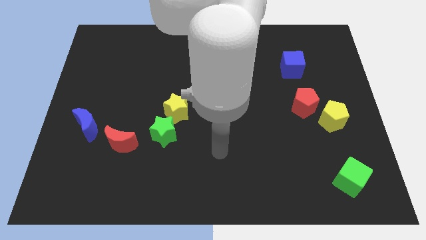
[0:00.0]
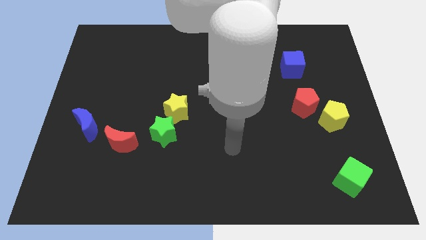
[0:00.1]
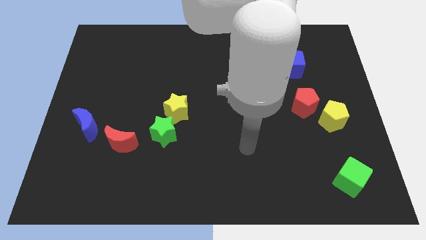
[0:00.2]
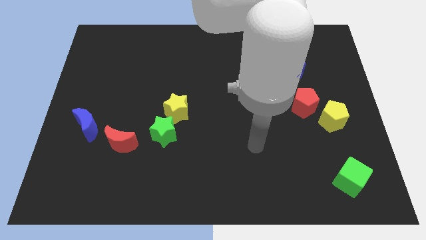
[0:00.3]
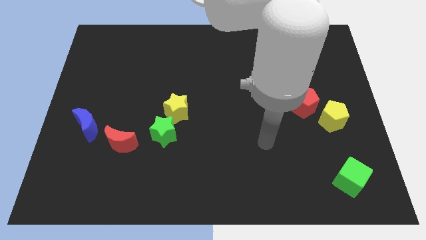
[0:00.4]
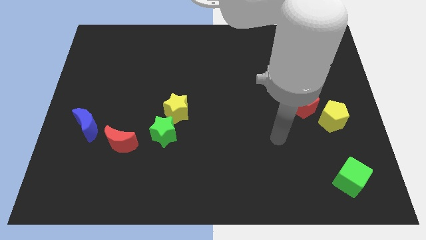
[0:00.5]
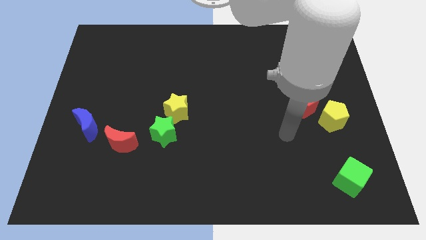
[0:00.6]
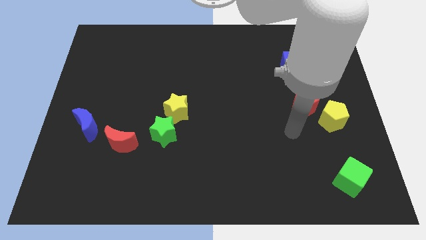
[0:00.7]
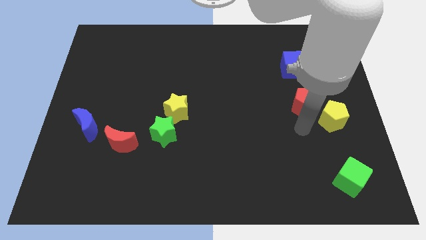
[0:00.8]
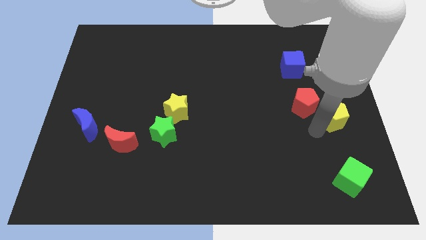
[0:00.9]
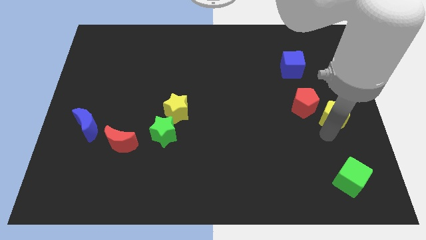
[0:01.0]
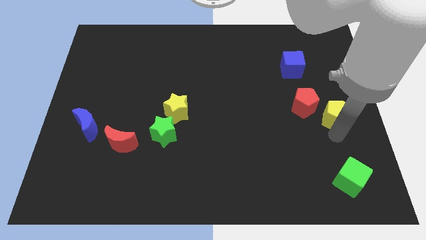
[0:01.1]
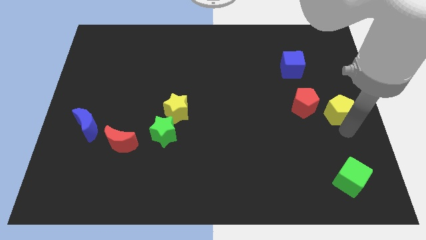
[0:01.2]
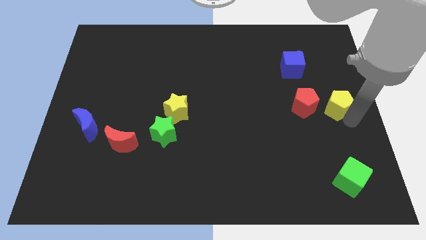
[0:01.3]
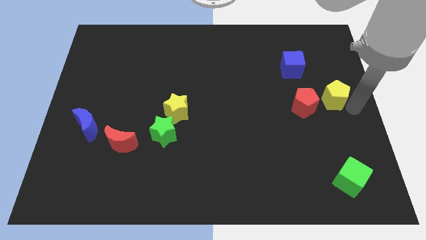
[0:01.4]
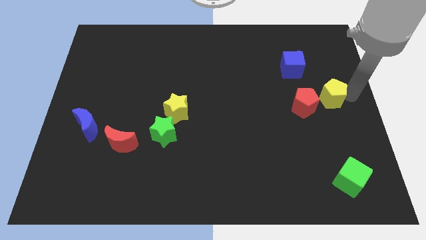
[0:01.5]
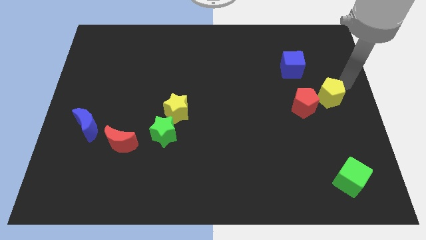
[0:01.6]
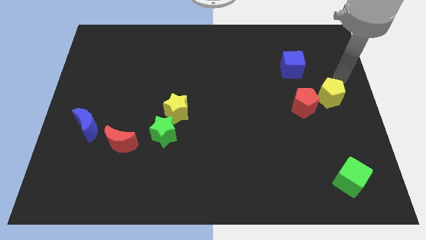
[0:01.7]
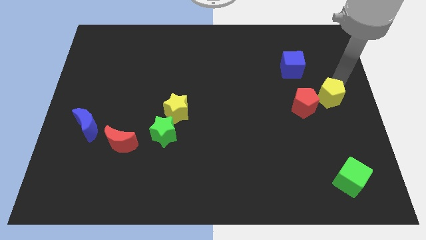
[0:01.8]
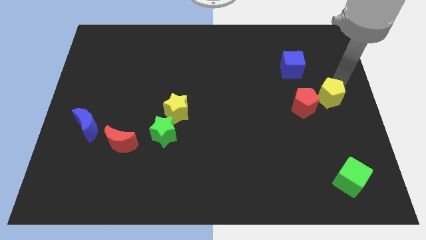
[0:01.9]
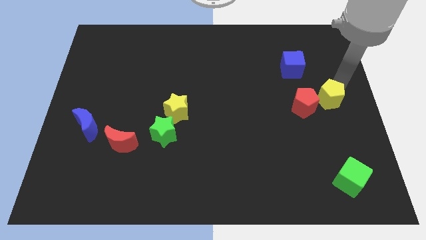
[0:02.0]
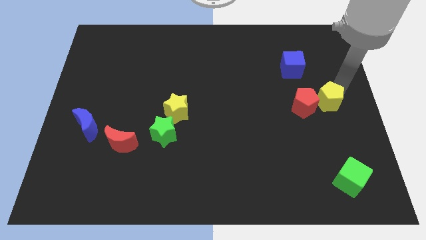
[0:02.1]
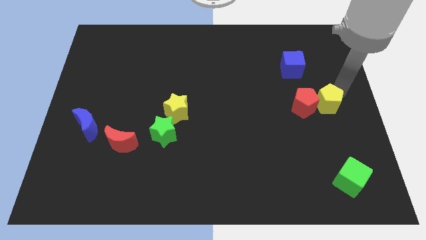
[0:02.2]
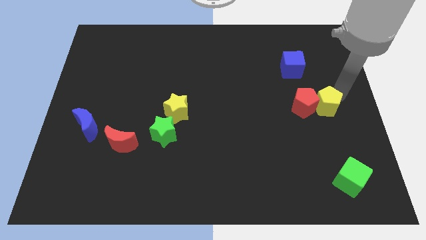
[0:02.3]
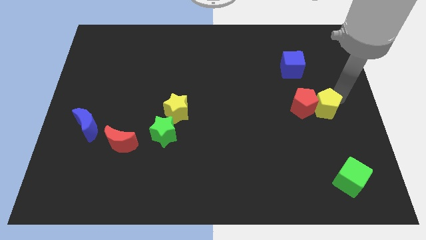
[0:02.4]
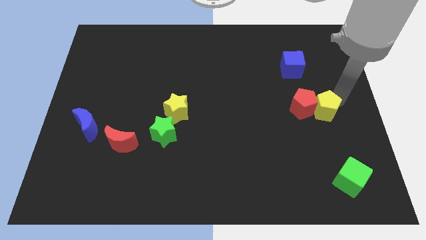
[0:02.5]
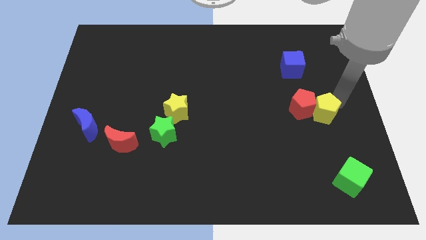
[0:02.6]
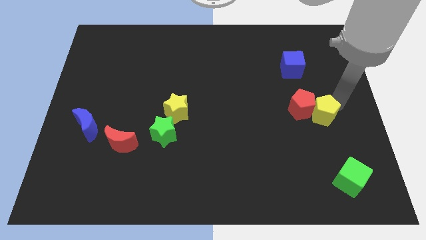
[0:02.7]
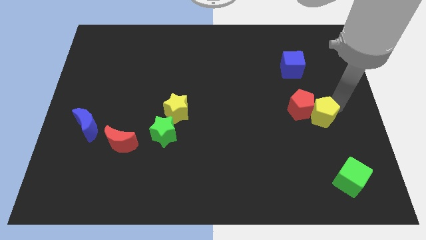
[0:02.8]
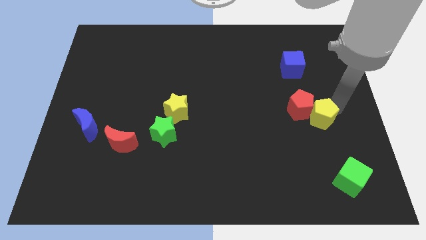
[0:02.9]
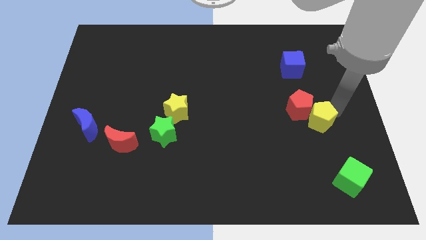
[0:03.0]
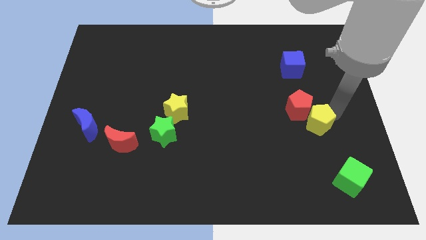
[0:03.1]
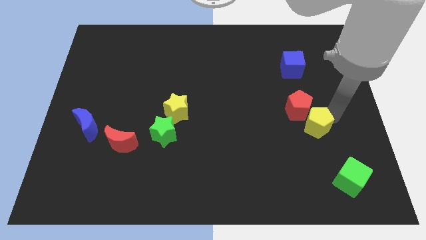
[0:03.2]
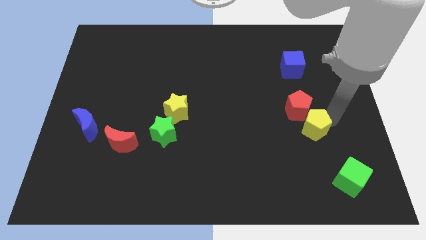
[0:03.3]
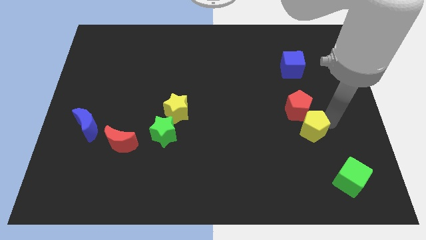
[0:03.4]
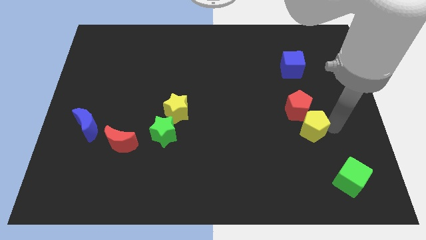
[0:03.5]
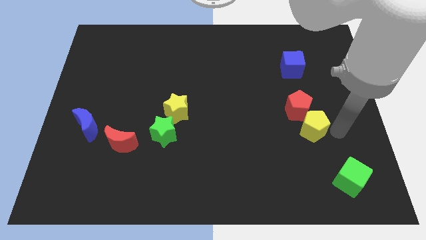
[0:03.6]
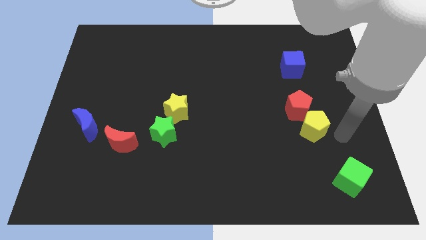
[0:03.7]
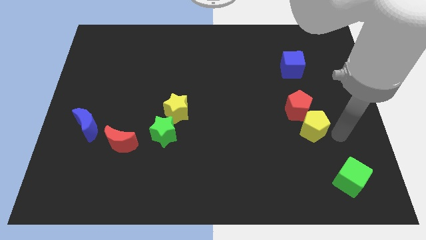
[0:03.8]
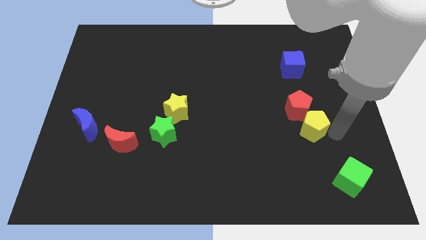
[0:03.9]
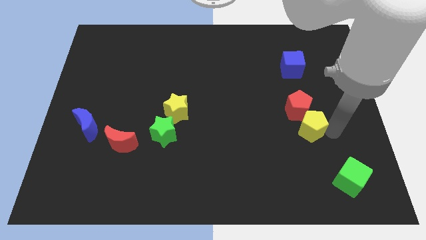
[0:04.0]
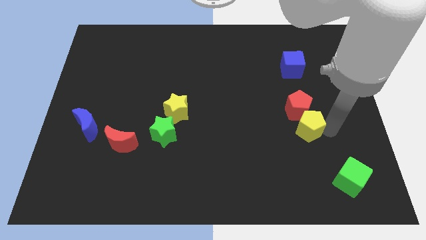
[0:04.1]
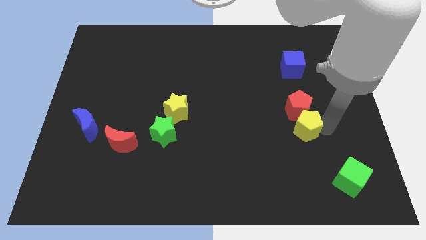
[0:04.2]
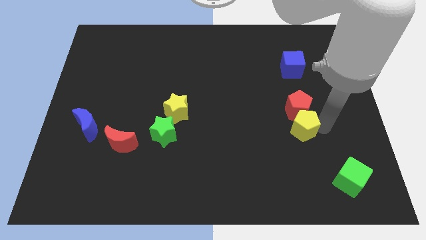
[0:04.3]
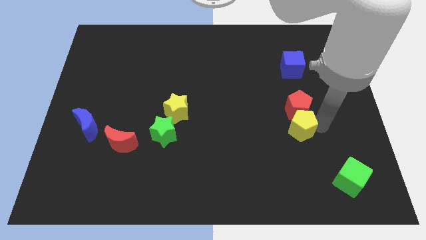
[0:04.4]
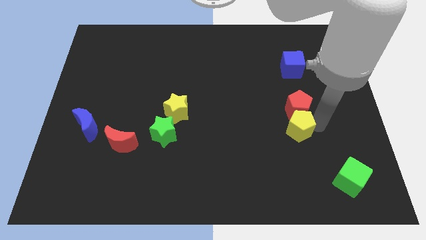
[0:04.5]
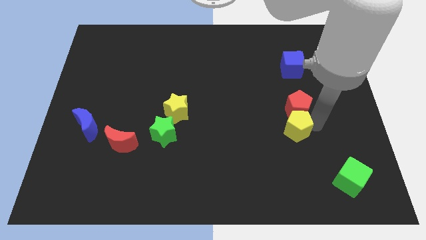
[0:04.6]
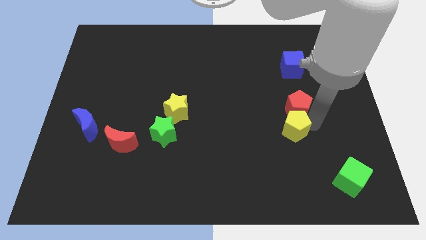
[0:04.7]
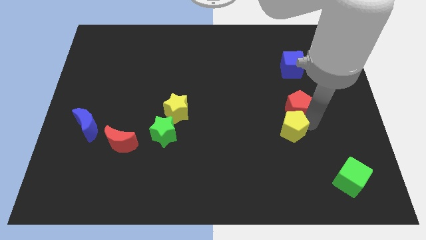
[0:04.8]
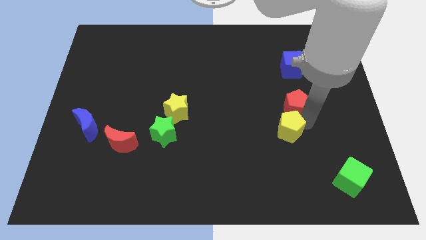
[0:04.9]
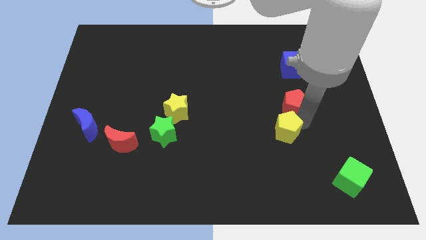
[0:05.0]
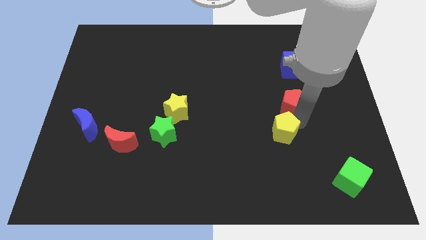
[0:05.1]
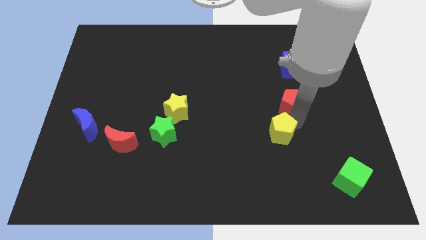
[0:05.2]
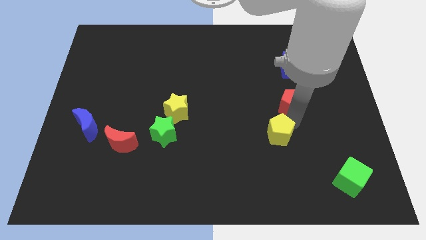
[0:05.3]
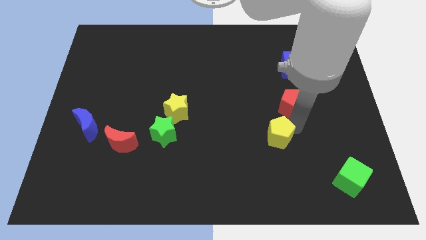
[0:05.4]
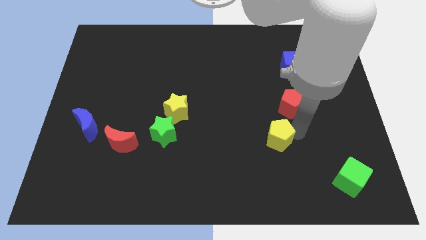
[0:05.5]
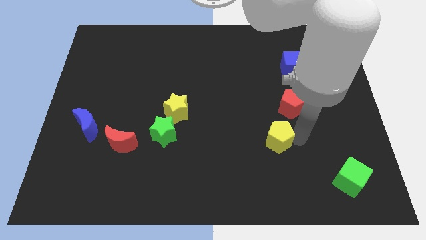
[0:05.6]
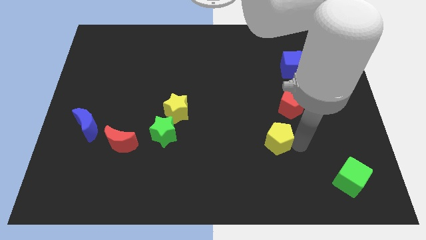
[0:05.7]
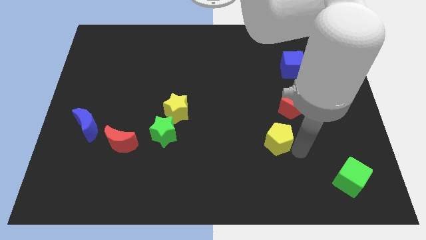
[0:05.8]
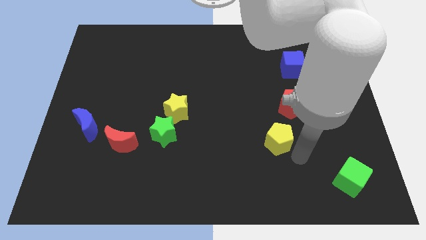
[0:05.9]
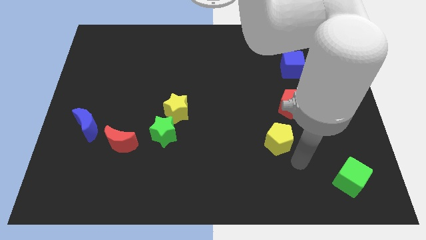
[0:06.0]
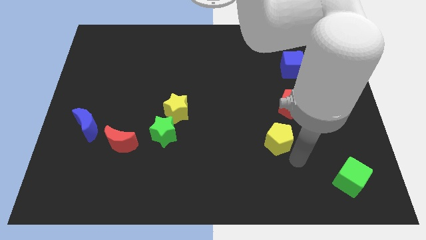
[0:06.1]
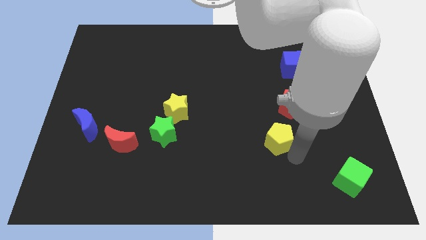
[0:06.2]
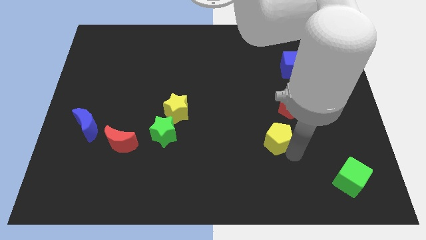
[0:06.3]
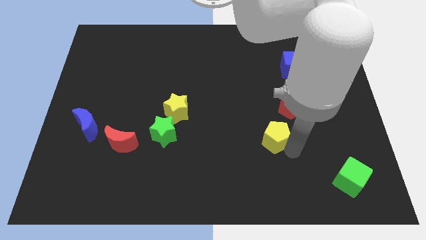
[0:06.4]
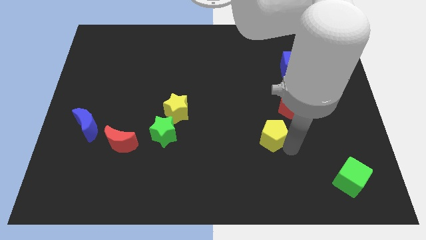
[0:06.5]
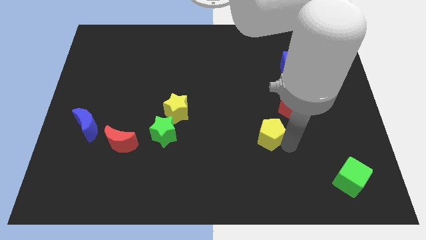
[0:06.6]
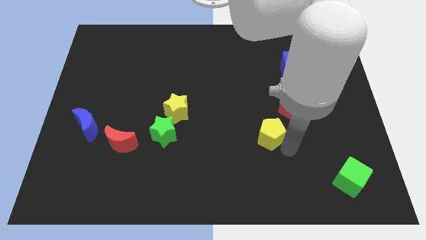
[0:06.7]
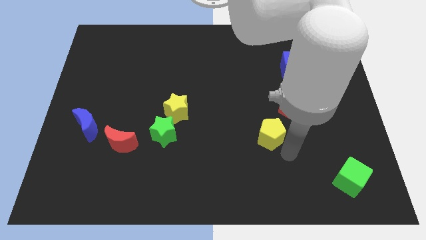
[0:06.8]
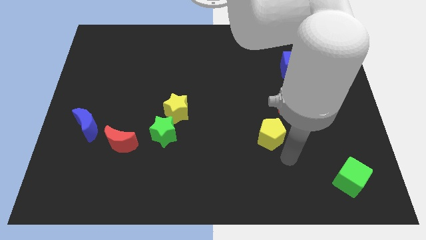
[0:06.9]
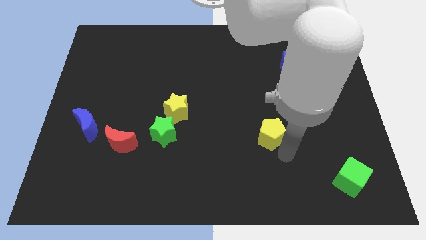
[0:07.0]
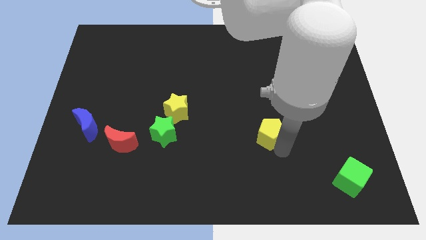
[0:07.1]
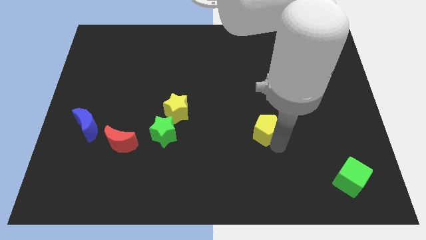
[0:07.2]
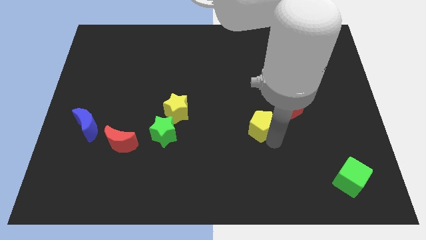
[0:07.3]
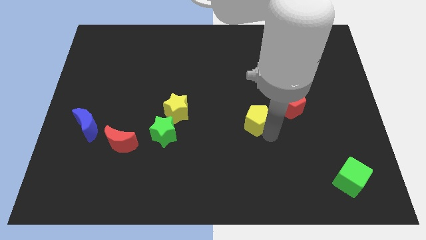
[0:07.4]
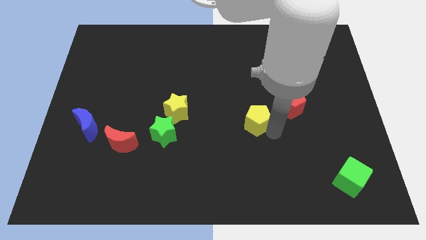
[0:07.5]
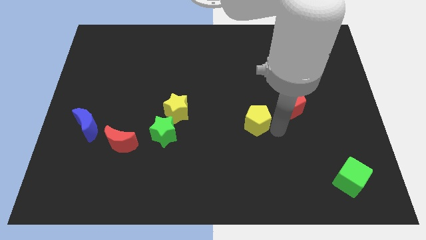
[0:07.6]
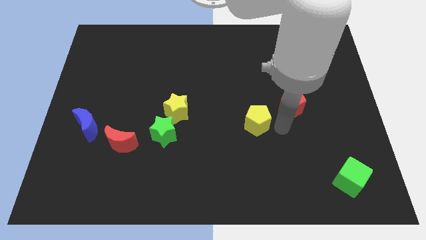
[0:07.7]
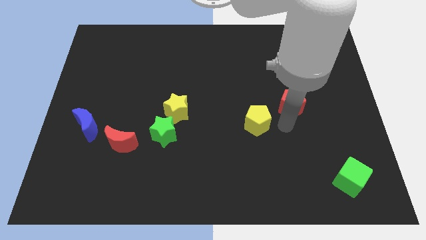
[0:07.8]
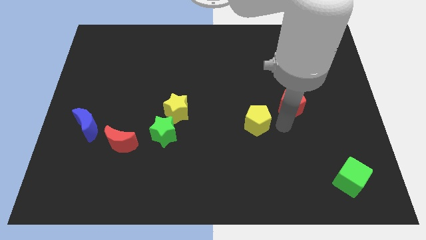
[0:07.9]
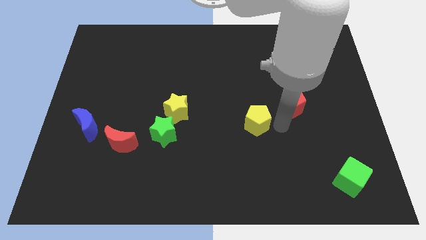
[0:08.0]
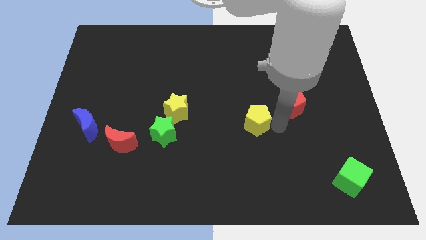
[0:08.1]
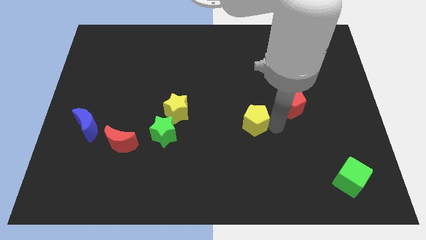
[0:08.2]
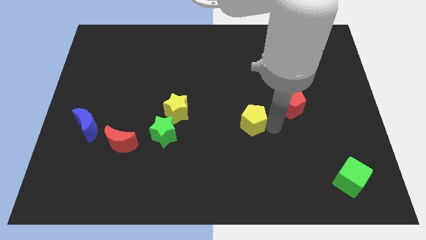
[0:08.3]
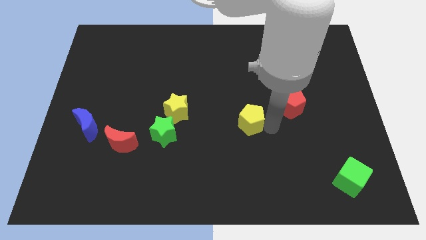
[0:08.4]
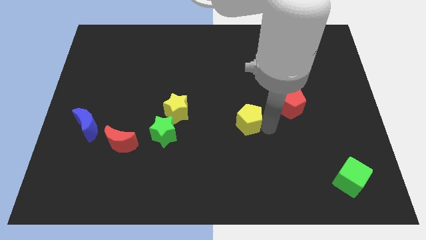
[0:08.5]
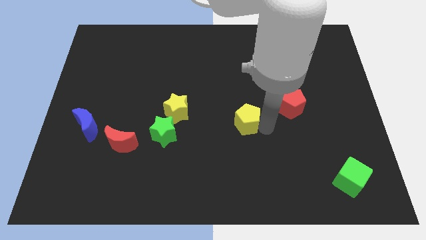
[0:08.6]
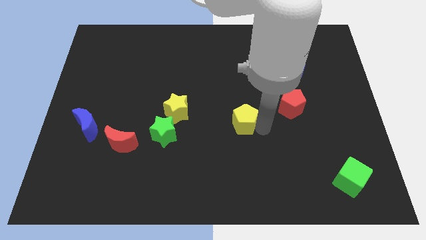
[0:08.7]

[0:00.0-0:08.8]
push the yellow pentagon left
